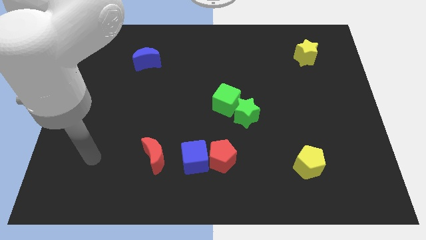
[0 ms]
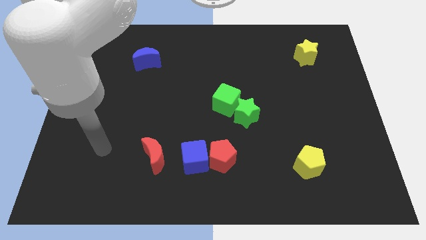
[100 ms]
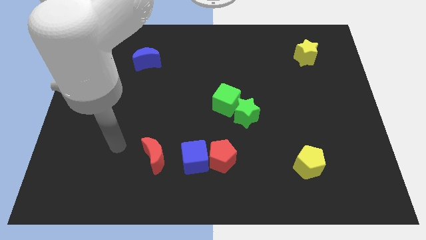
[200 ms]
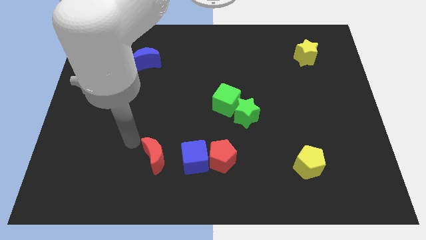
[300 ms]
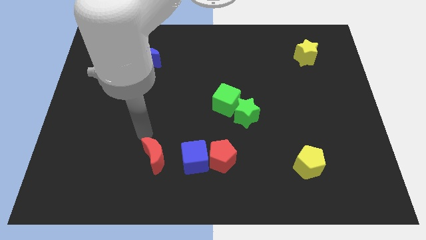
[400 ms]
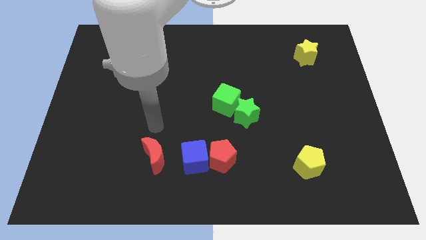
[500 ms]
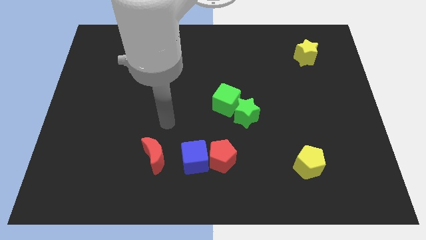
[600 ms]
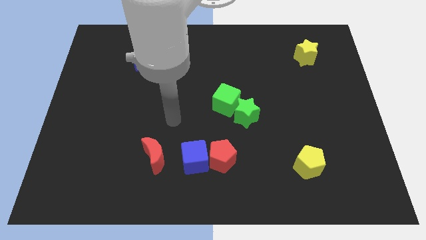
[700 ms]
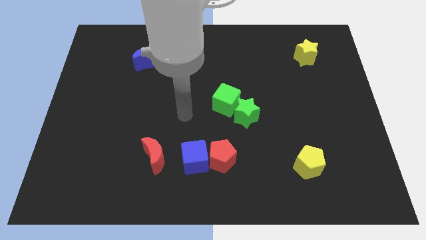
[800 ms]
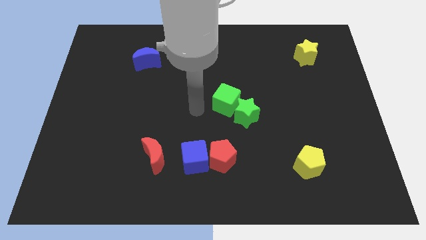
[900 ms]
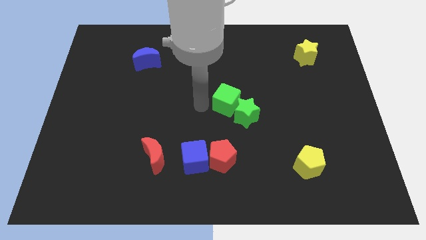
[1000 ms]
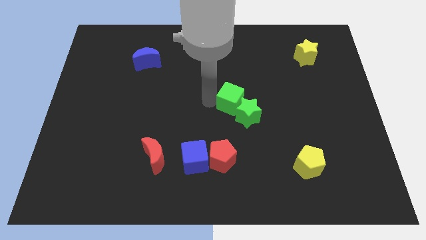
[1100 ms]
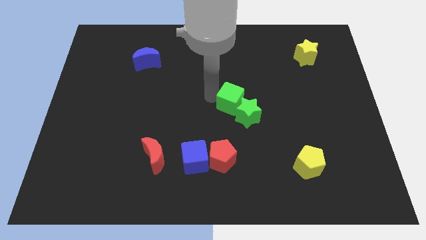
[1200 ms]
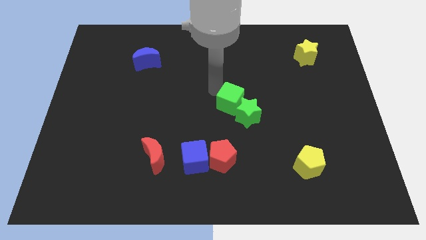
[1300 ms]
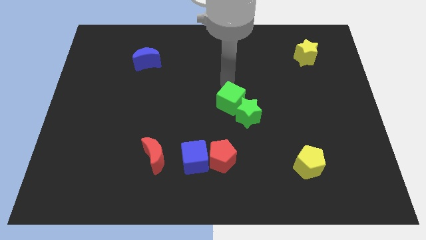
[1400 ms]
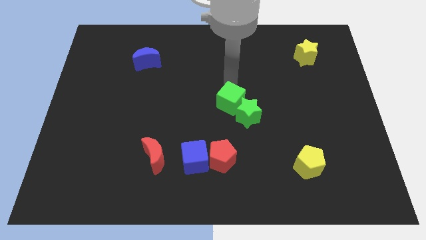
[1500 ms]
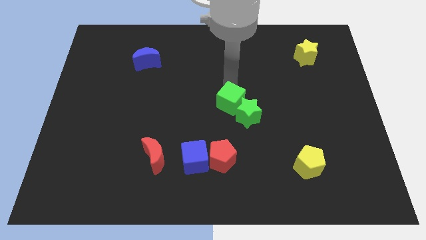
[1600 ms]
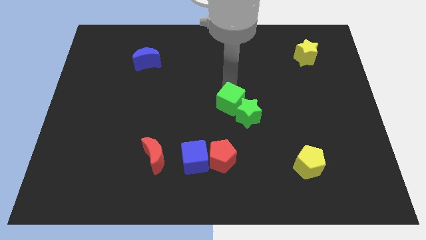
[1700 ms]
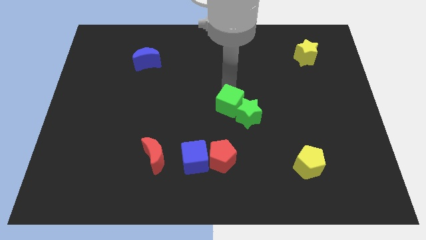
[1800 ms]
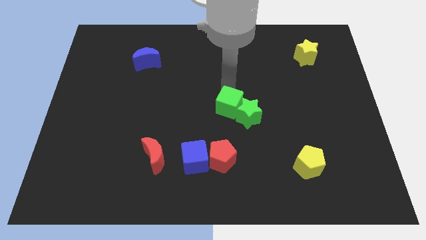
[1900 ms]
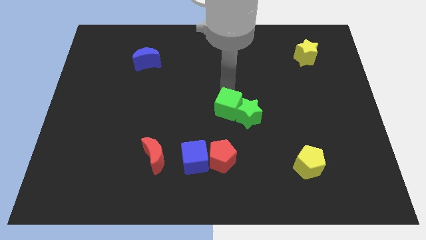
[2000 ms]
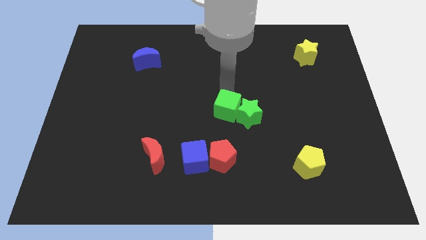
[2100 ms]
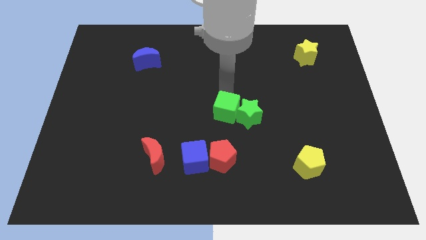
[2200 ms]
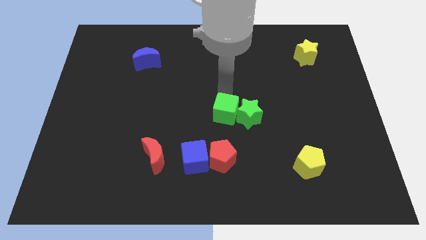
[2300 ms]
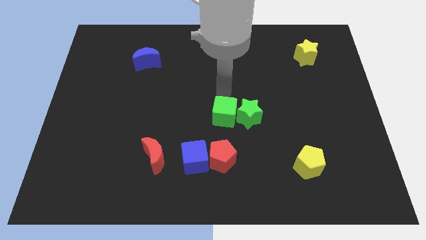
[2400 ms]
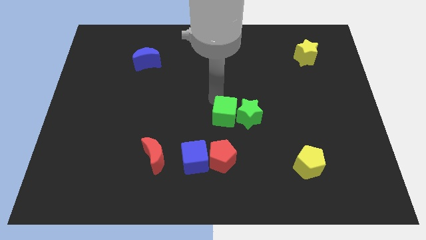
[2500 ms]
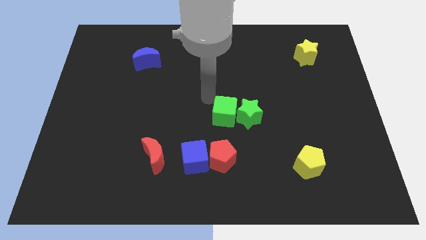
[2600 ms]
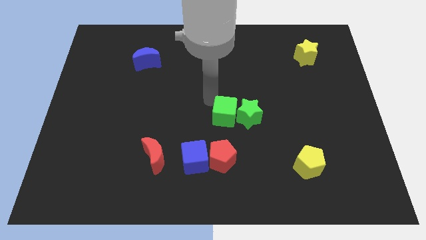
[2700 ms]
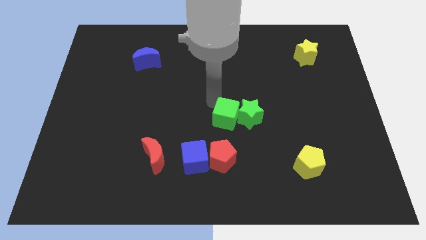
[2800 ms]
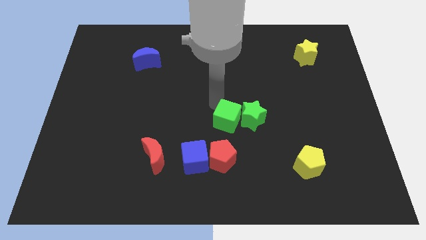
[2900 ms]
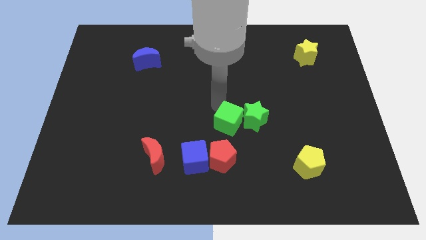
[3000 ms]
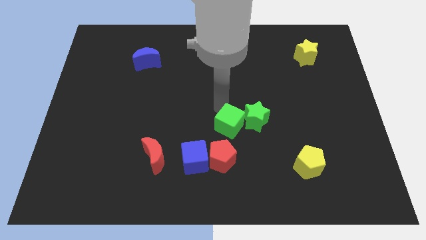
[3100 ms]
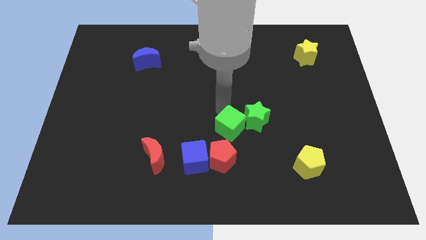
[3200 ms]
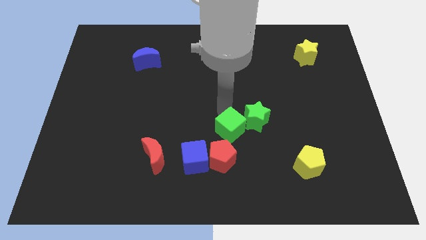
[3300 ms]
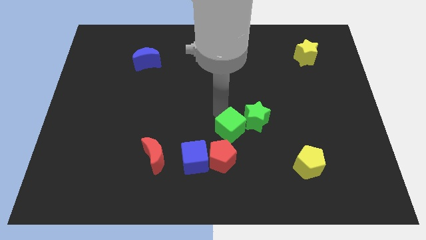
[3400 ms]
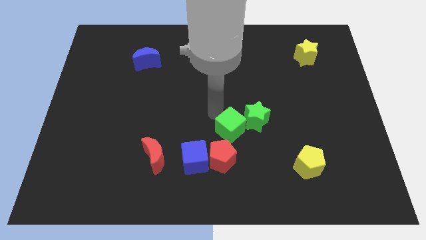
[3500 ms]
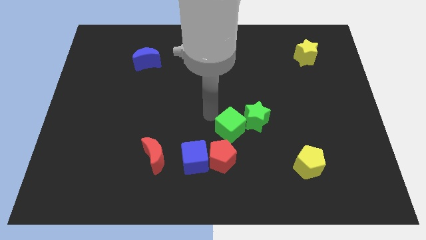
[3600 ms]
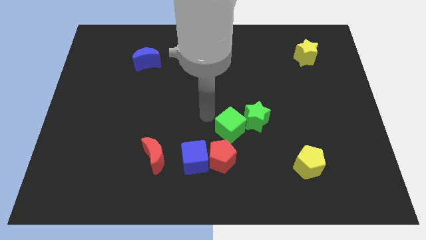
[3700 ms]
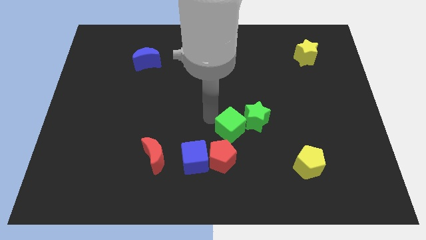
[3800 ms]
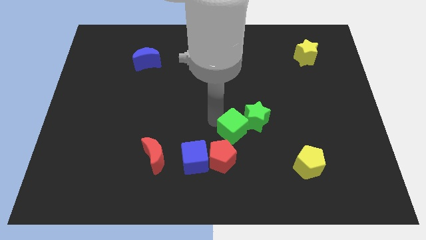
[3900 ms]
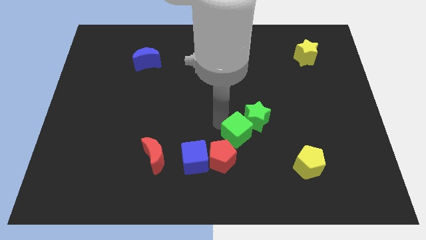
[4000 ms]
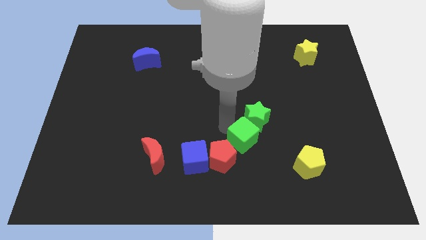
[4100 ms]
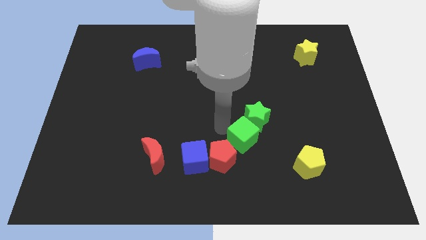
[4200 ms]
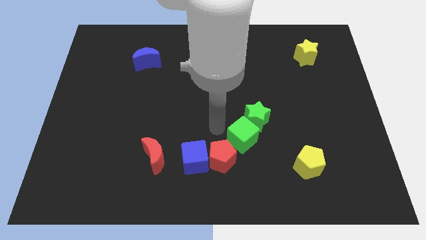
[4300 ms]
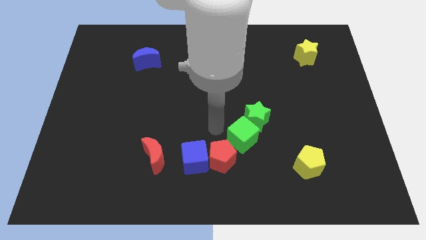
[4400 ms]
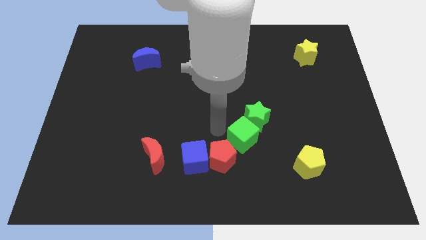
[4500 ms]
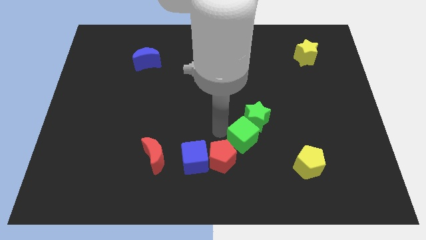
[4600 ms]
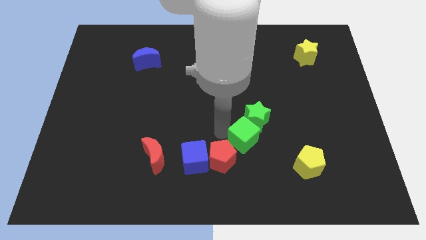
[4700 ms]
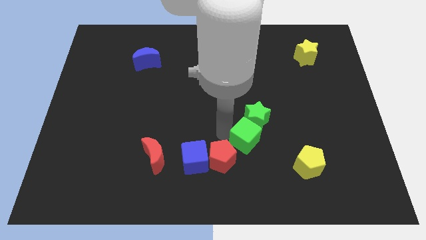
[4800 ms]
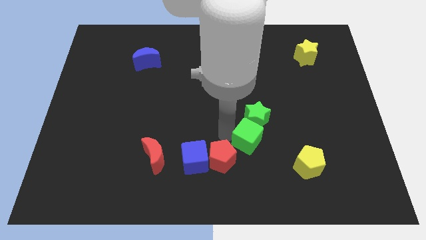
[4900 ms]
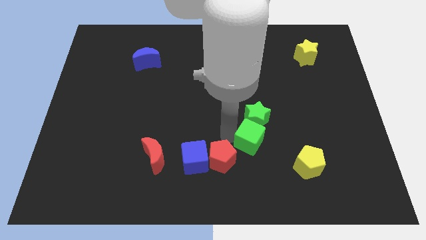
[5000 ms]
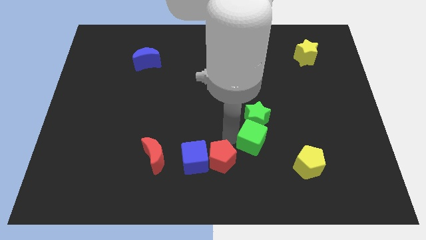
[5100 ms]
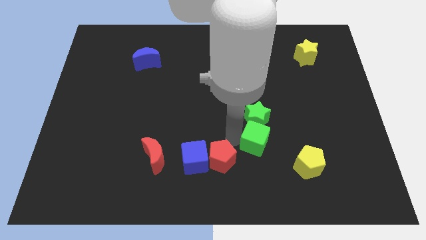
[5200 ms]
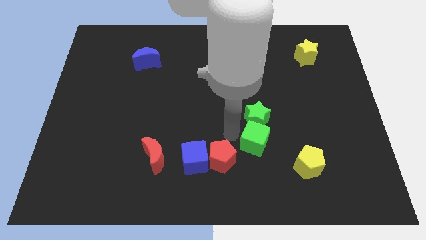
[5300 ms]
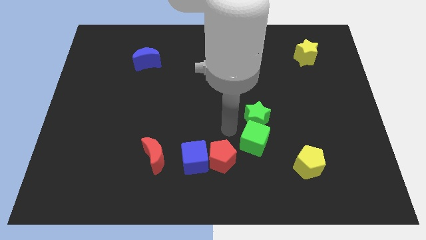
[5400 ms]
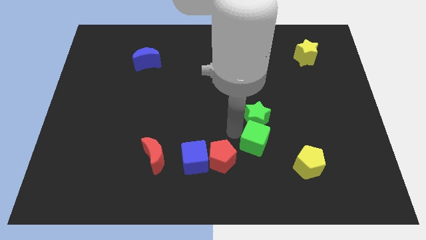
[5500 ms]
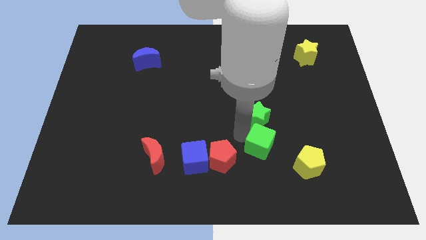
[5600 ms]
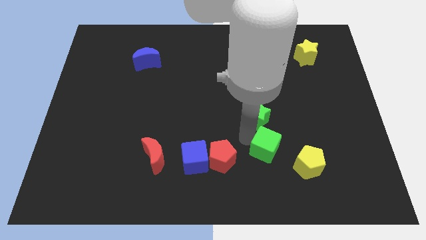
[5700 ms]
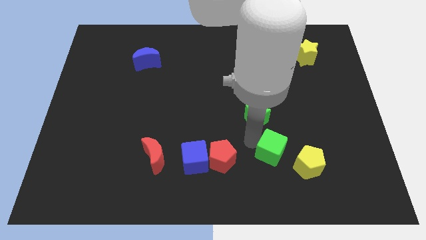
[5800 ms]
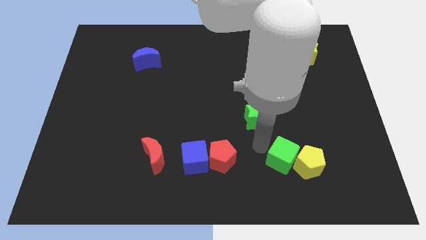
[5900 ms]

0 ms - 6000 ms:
push the green cube towards the yellow pentagon

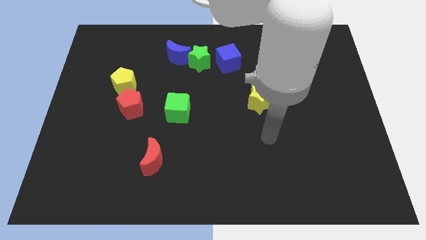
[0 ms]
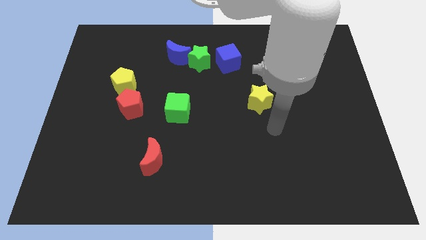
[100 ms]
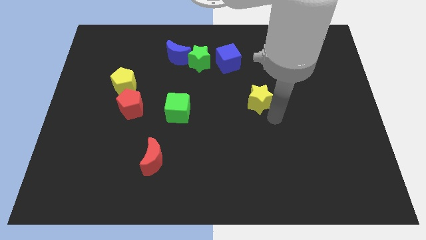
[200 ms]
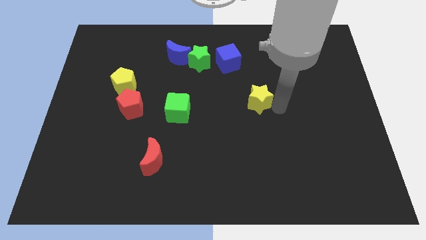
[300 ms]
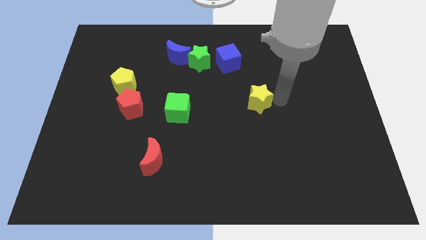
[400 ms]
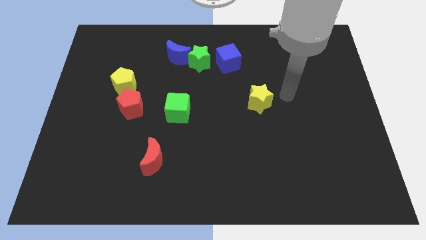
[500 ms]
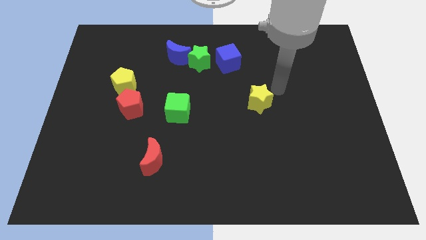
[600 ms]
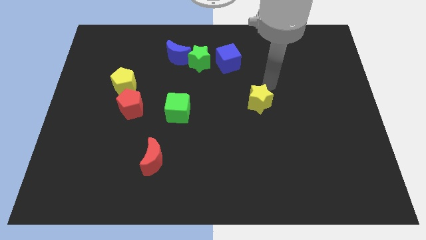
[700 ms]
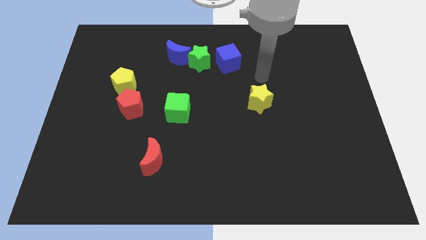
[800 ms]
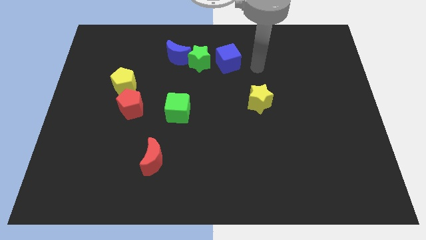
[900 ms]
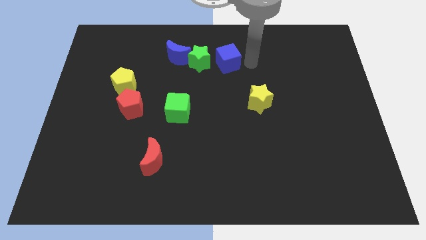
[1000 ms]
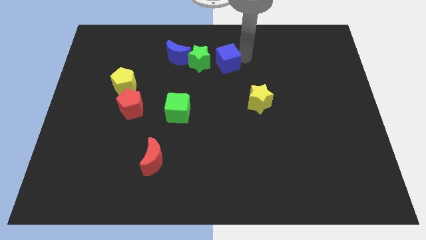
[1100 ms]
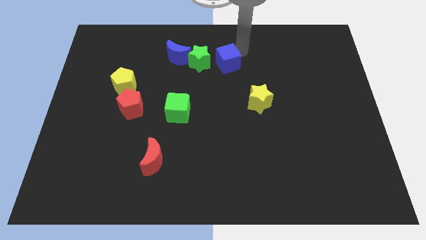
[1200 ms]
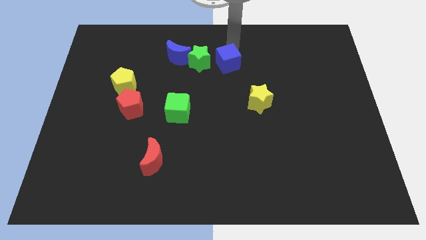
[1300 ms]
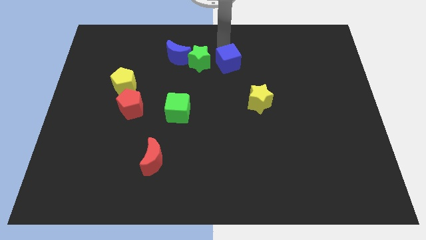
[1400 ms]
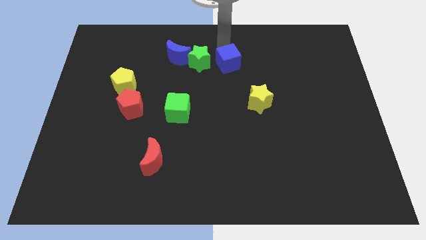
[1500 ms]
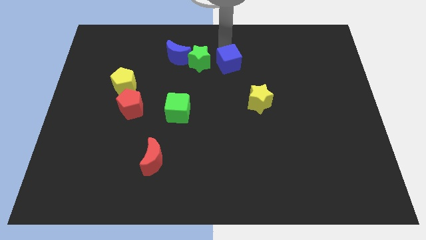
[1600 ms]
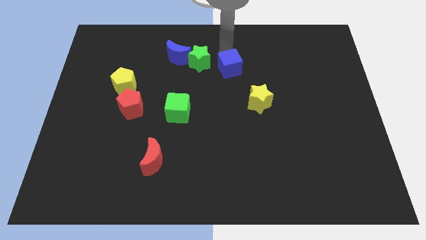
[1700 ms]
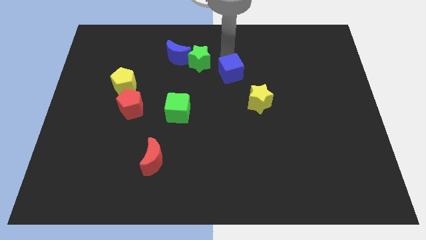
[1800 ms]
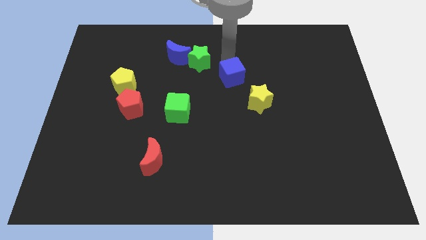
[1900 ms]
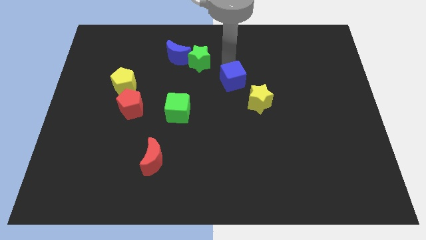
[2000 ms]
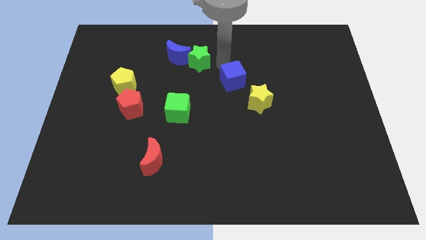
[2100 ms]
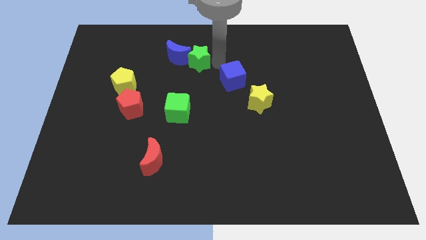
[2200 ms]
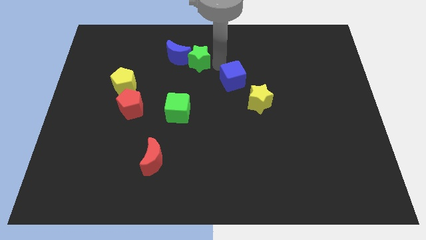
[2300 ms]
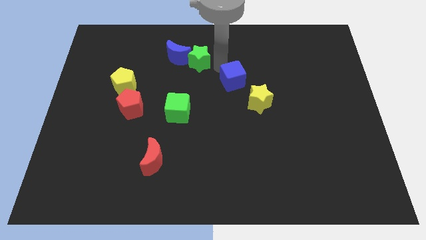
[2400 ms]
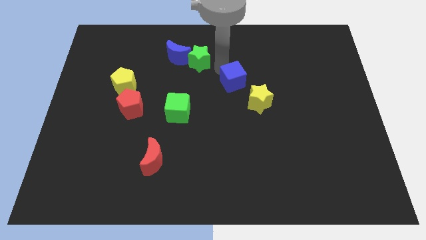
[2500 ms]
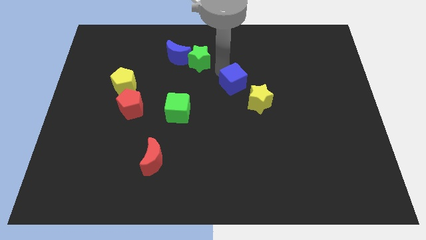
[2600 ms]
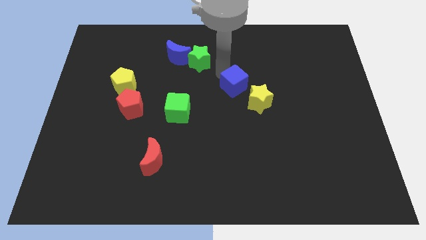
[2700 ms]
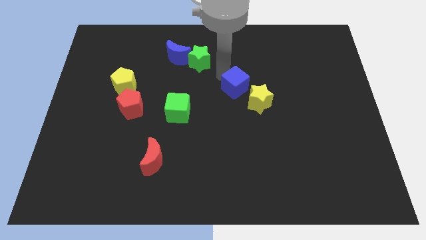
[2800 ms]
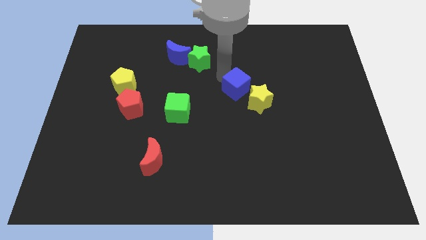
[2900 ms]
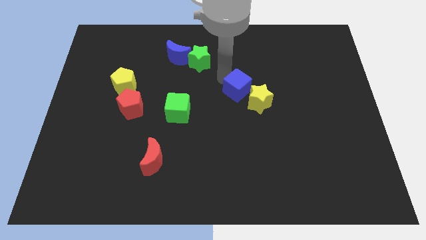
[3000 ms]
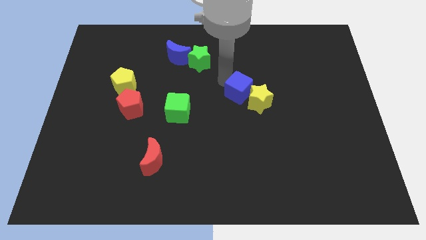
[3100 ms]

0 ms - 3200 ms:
put the blue cube close to the yellow star
